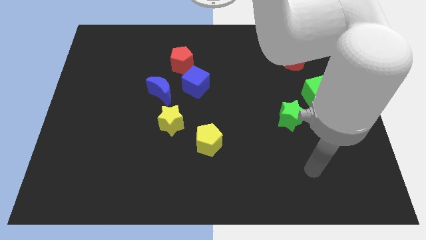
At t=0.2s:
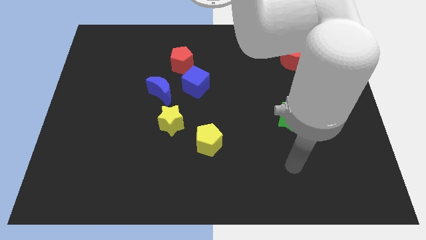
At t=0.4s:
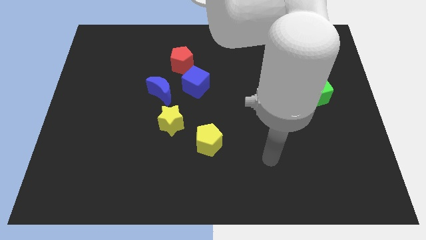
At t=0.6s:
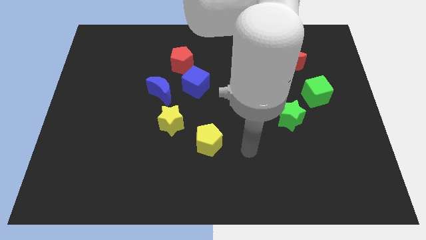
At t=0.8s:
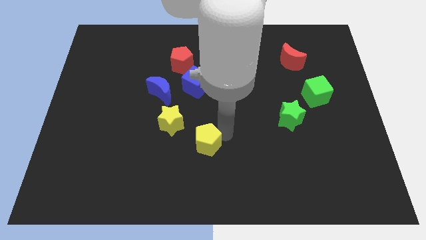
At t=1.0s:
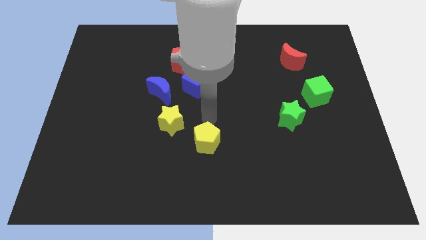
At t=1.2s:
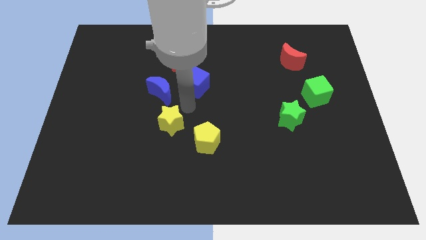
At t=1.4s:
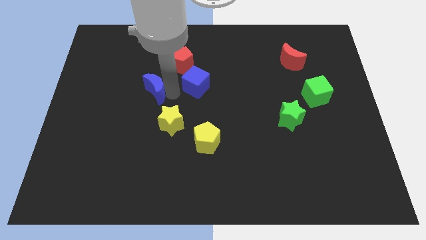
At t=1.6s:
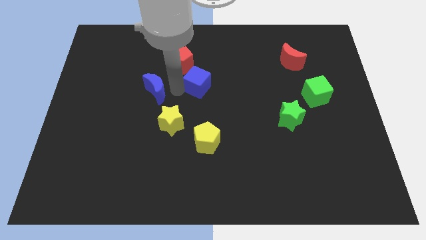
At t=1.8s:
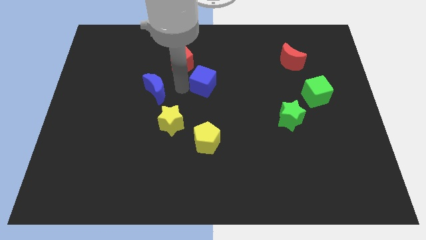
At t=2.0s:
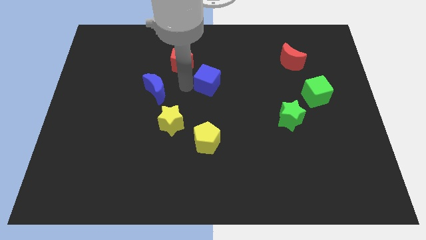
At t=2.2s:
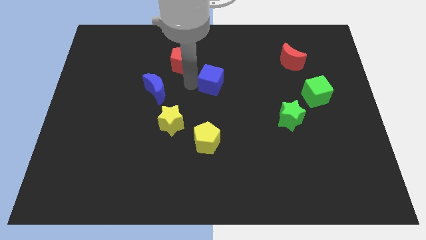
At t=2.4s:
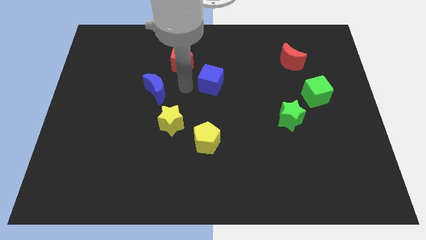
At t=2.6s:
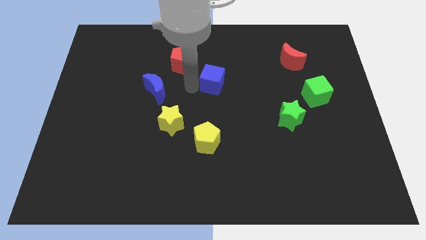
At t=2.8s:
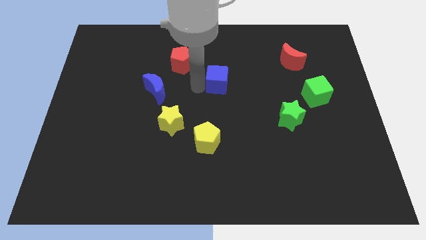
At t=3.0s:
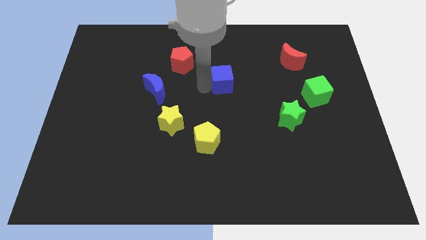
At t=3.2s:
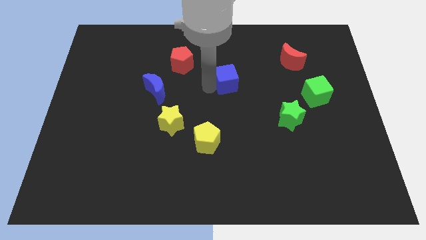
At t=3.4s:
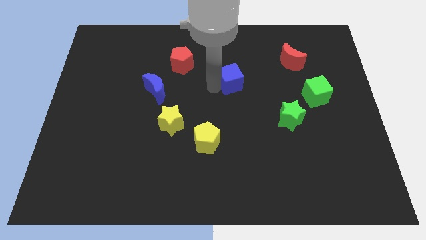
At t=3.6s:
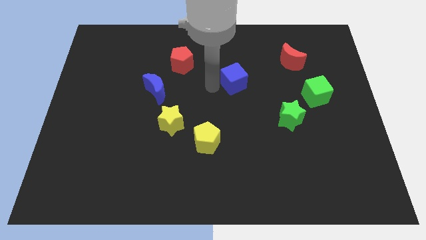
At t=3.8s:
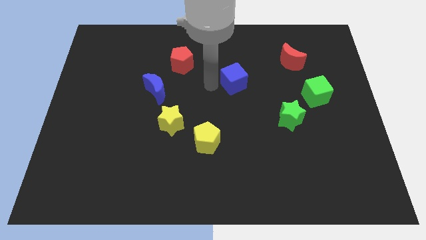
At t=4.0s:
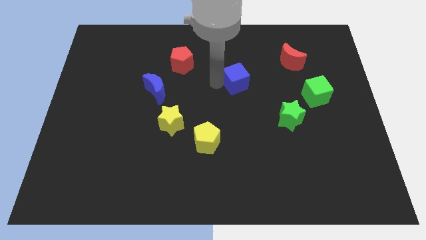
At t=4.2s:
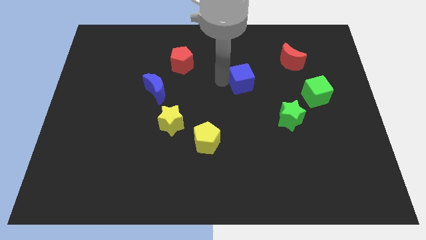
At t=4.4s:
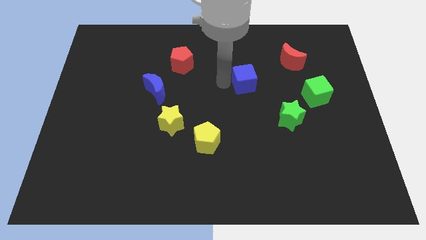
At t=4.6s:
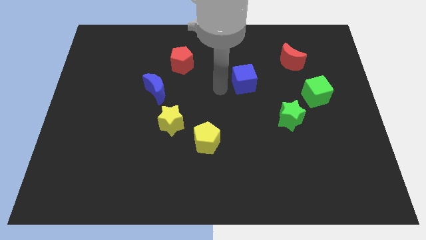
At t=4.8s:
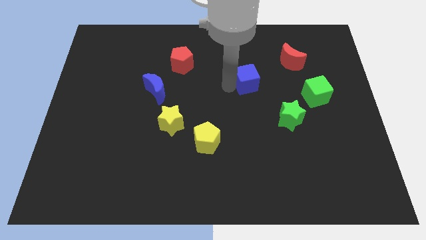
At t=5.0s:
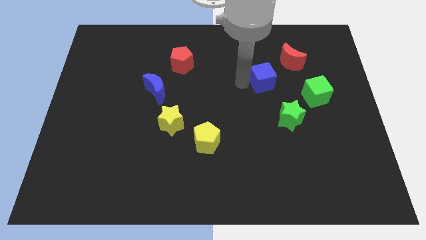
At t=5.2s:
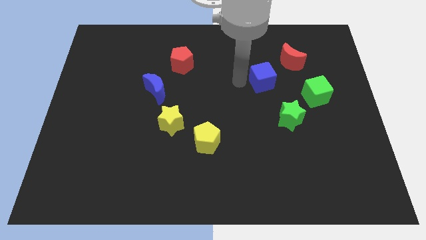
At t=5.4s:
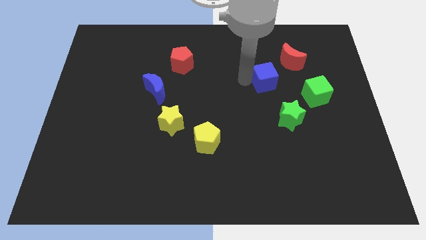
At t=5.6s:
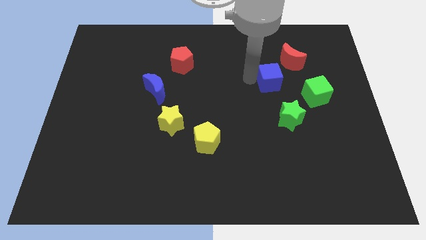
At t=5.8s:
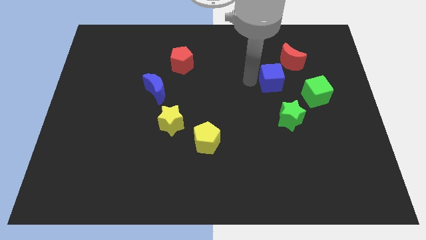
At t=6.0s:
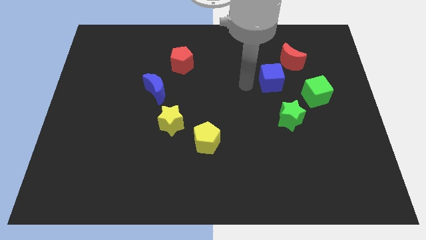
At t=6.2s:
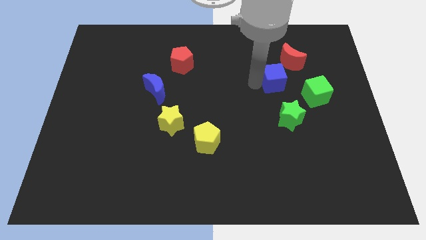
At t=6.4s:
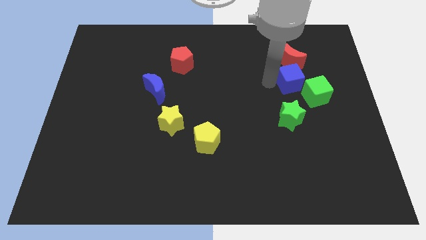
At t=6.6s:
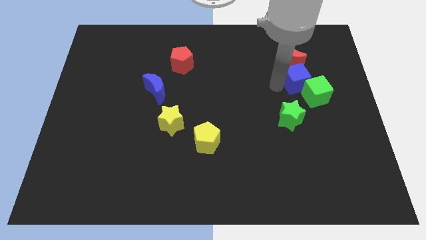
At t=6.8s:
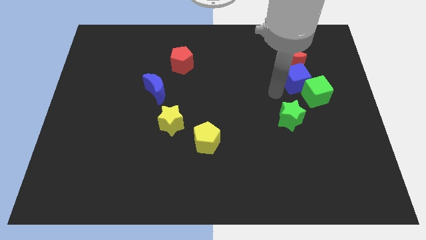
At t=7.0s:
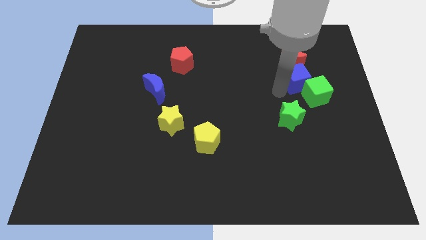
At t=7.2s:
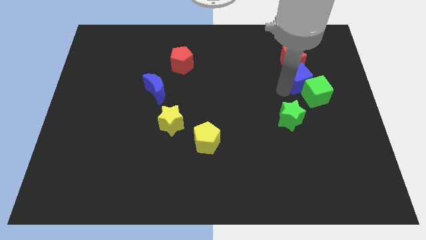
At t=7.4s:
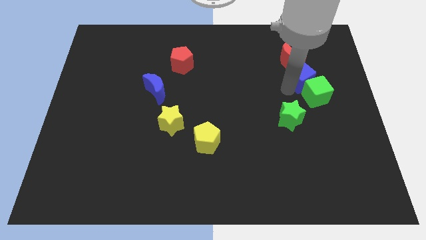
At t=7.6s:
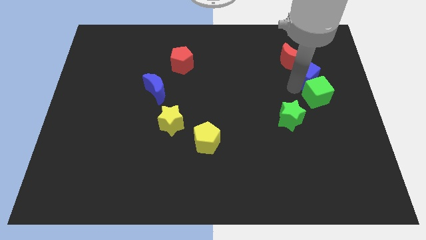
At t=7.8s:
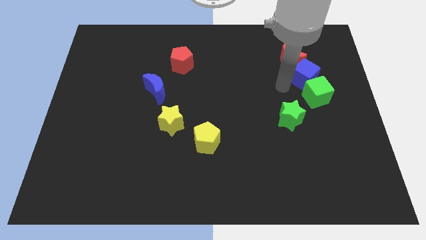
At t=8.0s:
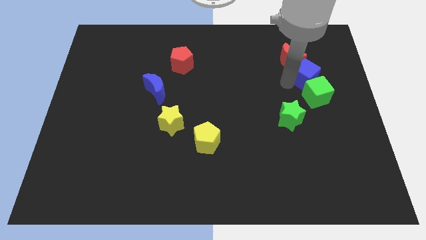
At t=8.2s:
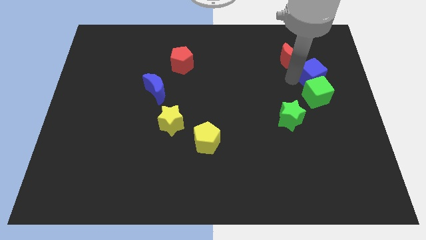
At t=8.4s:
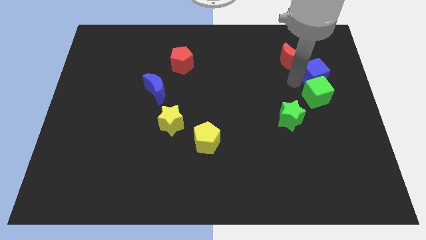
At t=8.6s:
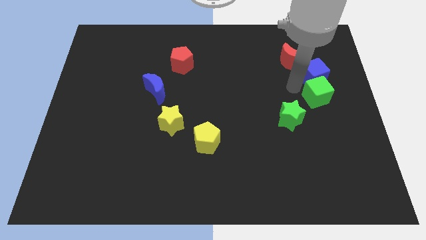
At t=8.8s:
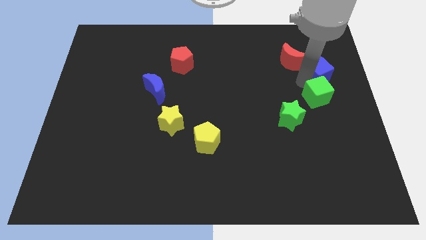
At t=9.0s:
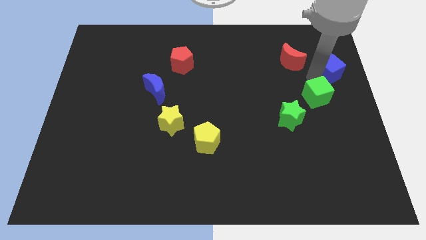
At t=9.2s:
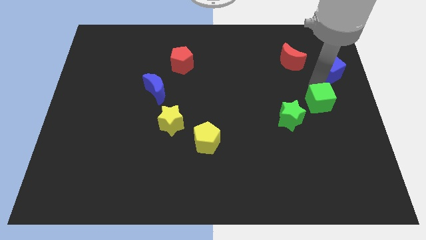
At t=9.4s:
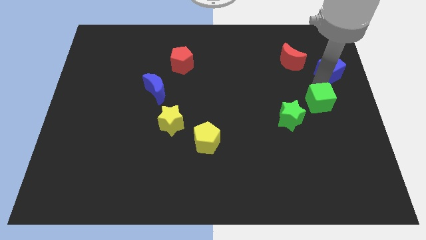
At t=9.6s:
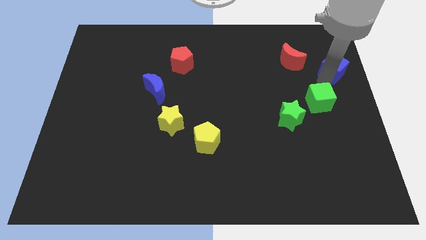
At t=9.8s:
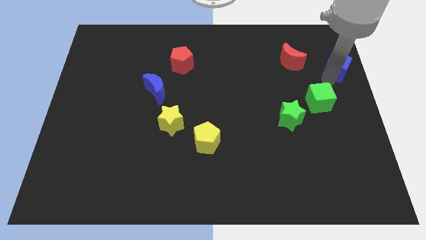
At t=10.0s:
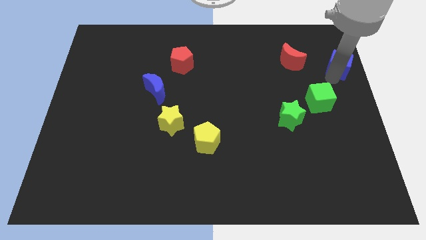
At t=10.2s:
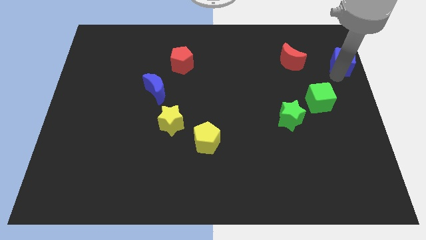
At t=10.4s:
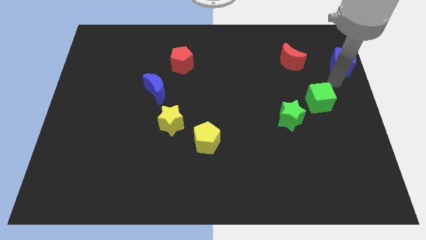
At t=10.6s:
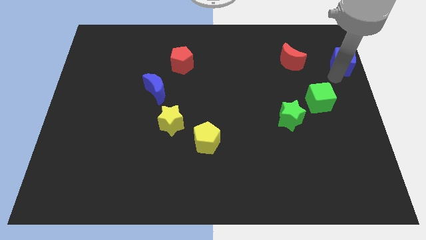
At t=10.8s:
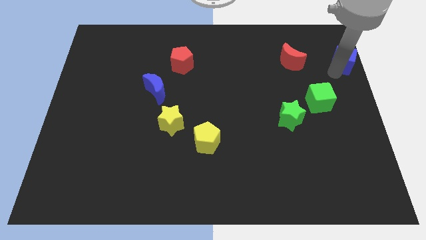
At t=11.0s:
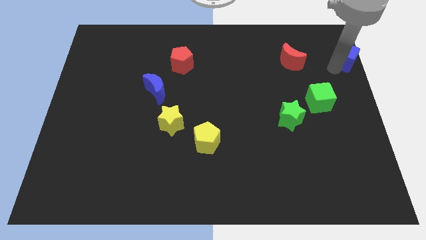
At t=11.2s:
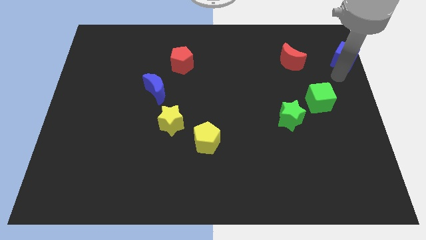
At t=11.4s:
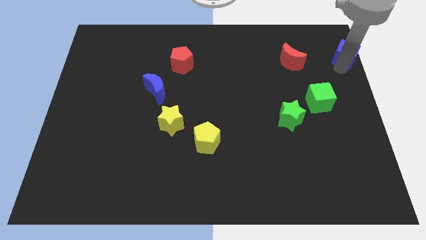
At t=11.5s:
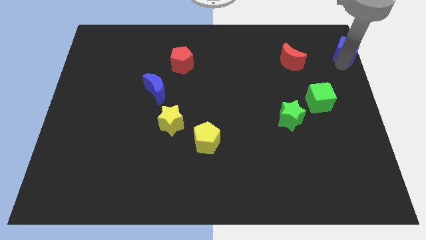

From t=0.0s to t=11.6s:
put the blue cube to the upper right corner

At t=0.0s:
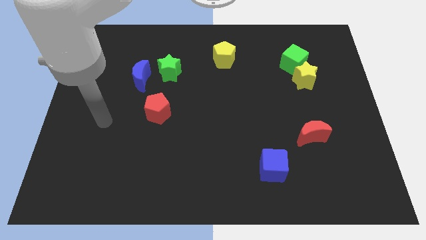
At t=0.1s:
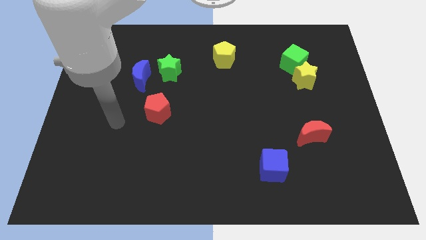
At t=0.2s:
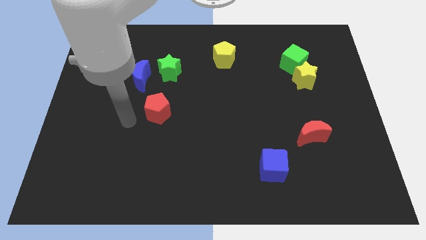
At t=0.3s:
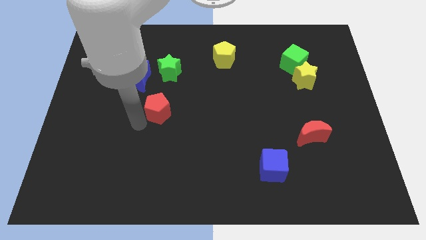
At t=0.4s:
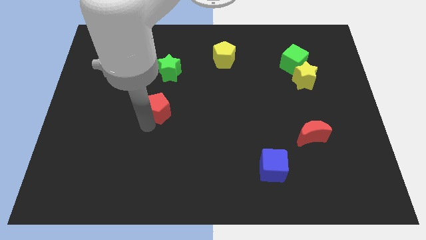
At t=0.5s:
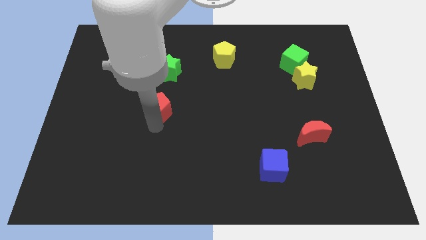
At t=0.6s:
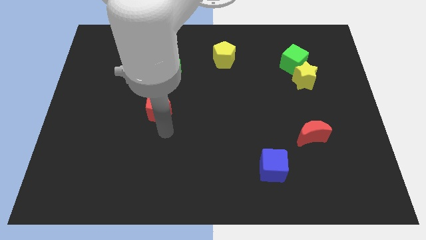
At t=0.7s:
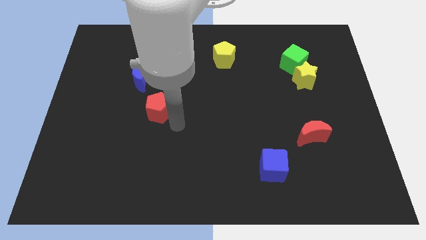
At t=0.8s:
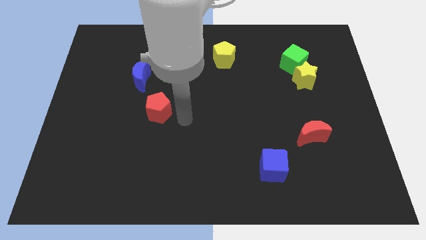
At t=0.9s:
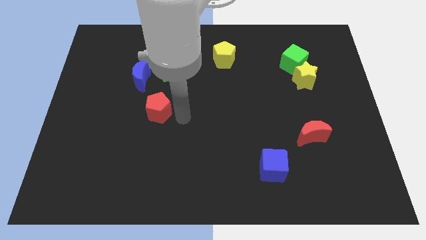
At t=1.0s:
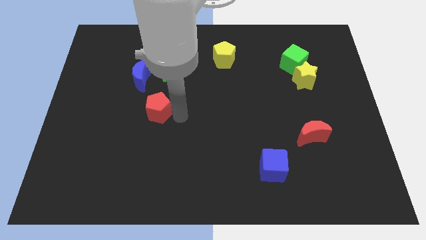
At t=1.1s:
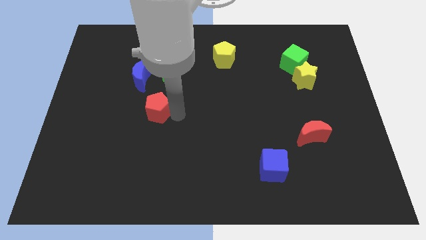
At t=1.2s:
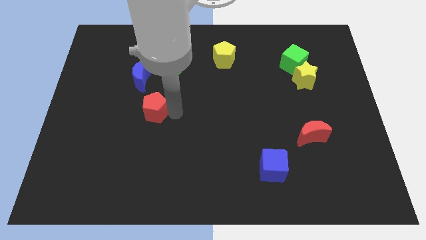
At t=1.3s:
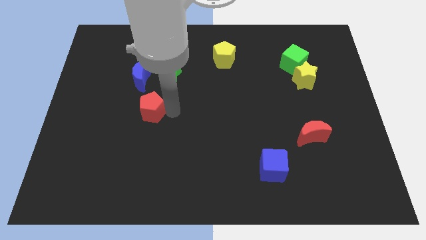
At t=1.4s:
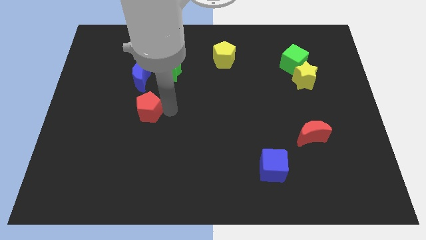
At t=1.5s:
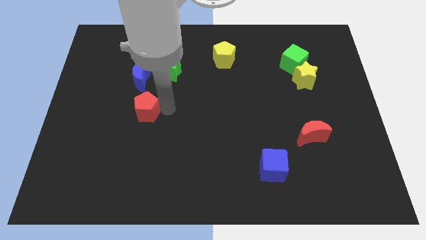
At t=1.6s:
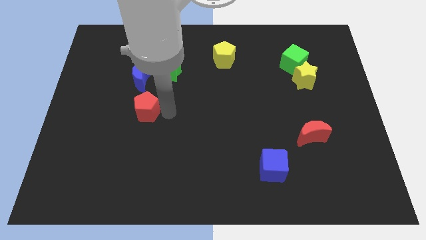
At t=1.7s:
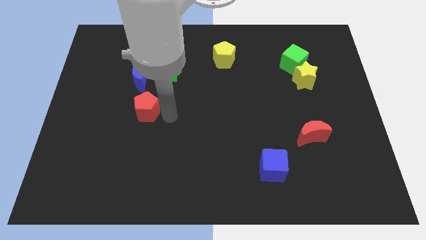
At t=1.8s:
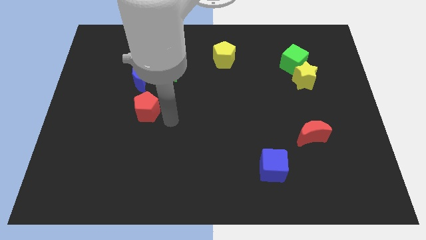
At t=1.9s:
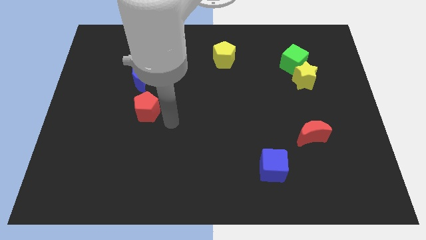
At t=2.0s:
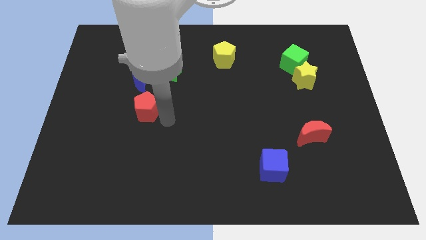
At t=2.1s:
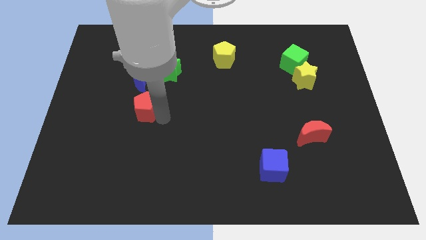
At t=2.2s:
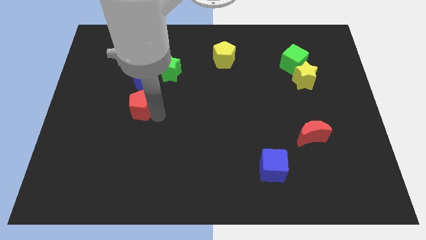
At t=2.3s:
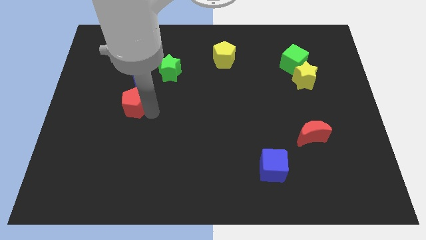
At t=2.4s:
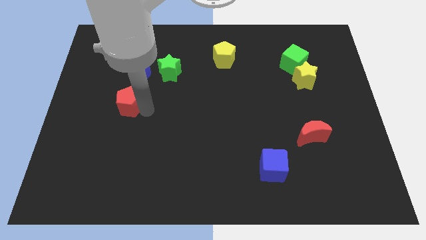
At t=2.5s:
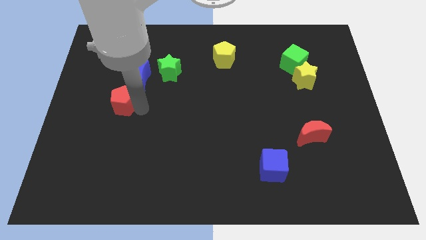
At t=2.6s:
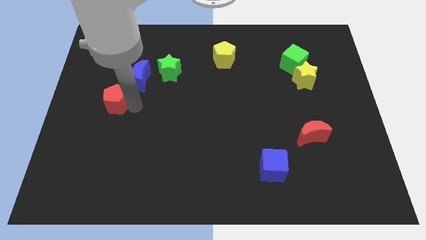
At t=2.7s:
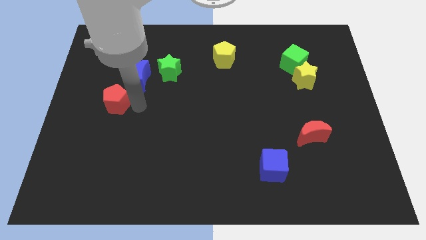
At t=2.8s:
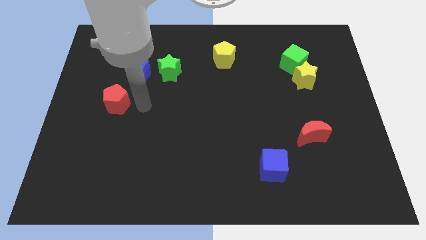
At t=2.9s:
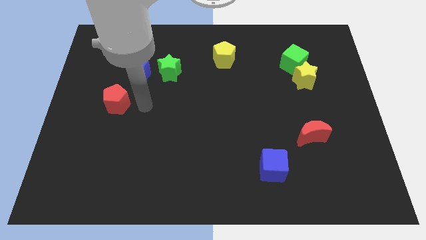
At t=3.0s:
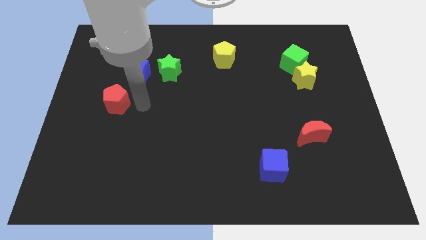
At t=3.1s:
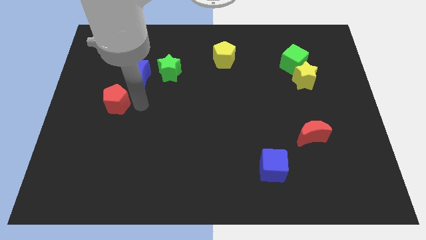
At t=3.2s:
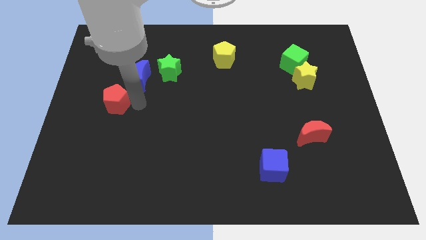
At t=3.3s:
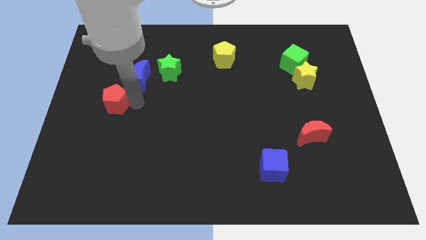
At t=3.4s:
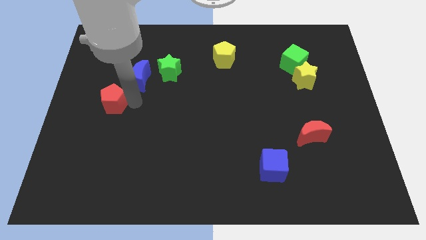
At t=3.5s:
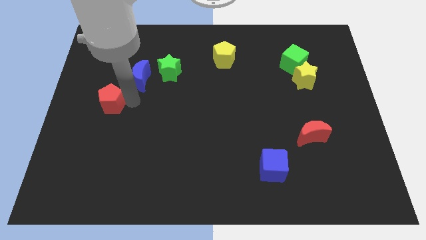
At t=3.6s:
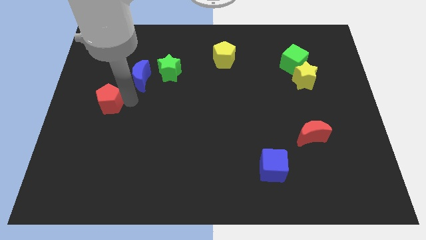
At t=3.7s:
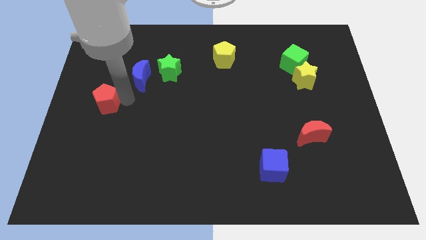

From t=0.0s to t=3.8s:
push the red pentagon to the center left
